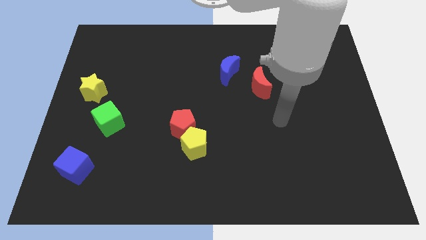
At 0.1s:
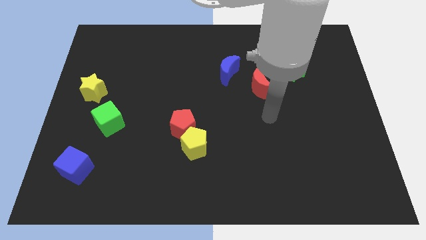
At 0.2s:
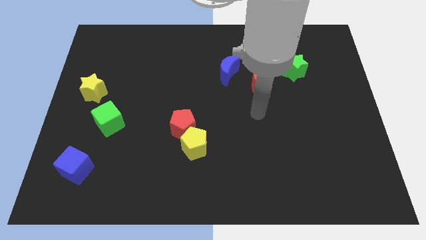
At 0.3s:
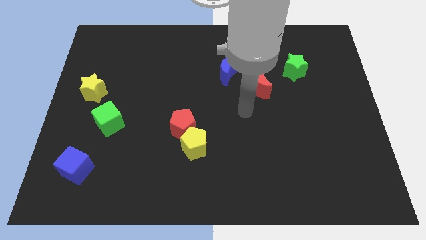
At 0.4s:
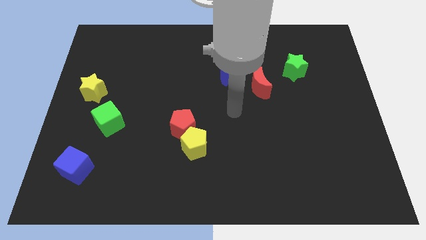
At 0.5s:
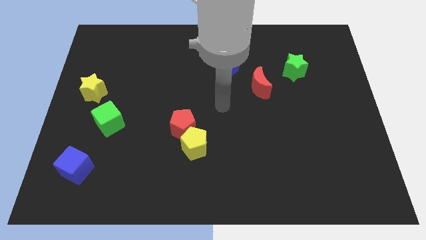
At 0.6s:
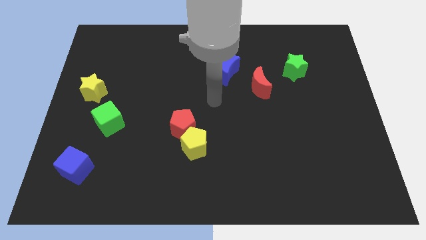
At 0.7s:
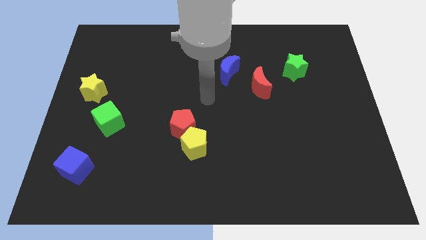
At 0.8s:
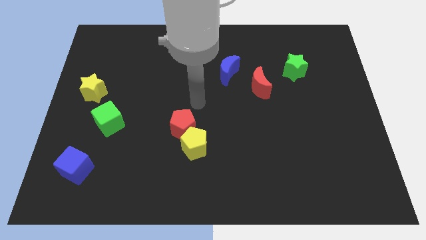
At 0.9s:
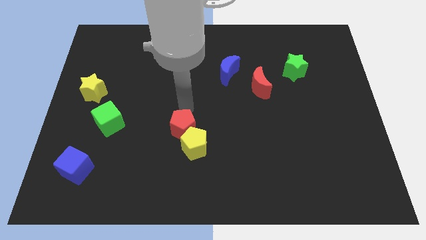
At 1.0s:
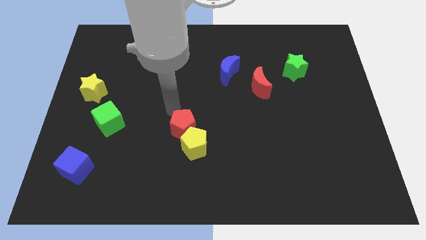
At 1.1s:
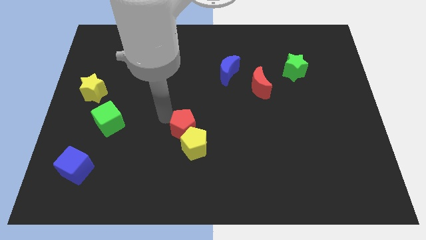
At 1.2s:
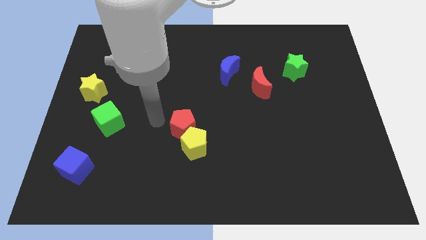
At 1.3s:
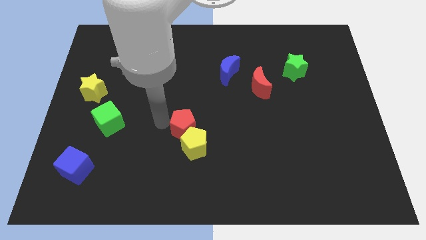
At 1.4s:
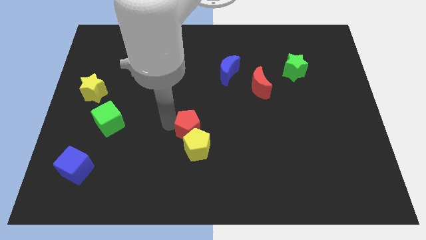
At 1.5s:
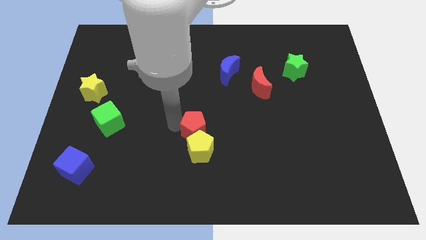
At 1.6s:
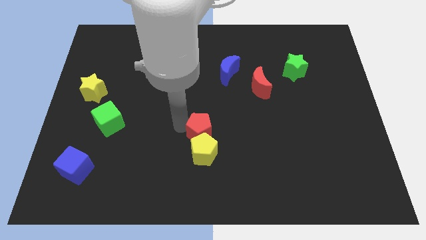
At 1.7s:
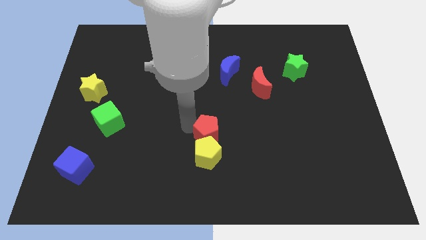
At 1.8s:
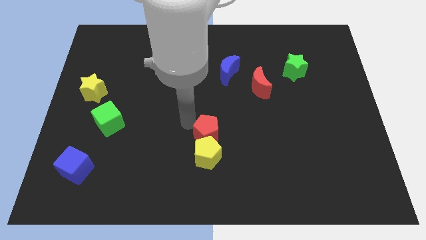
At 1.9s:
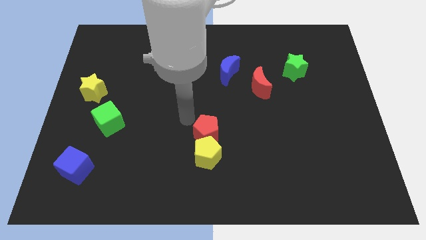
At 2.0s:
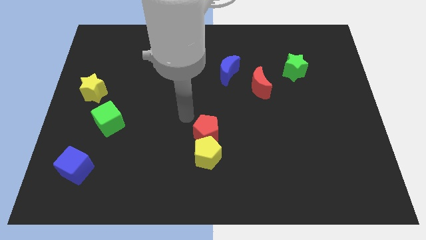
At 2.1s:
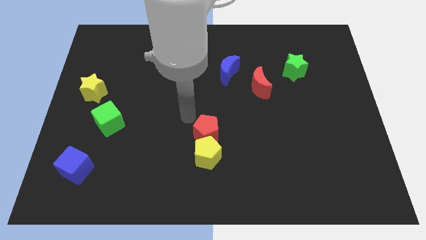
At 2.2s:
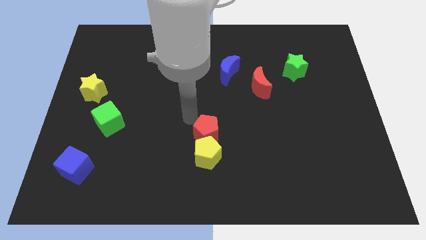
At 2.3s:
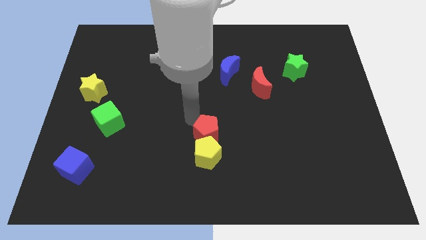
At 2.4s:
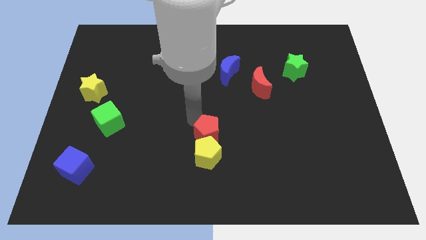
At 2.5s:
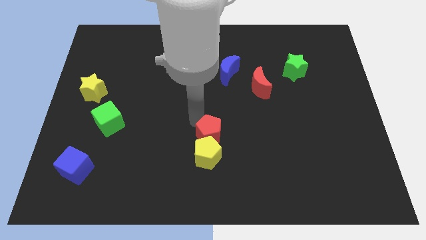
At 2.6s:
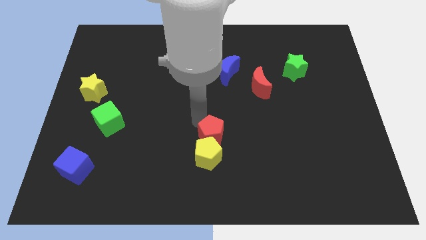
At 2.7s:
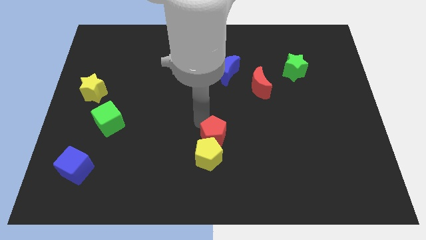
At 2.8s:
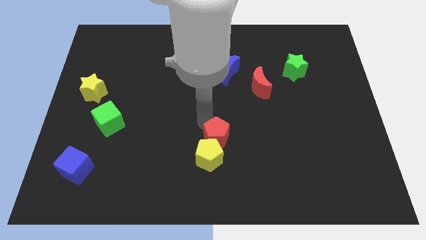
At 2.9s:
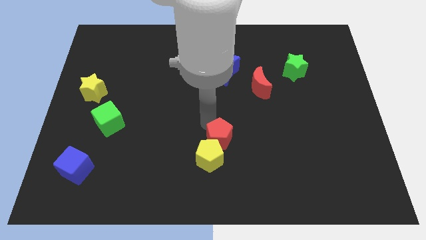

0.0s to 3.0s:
slightly move the red pentagon downwards and right diagonally

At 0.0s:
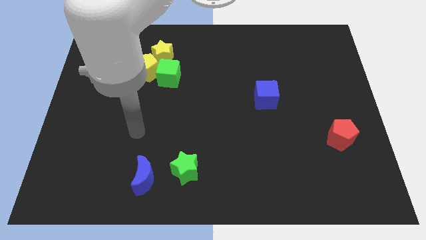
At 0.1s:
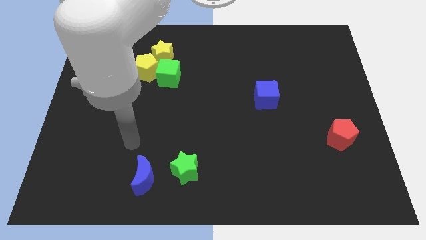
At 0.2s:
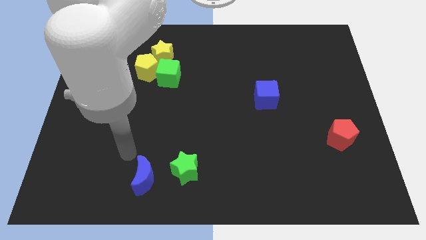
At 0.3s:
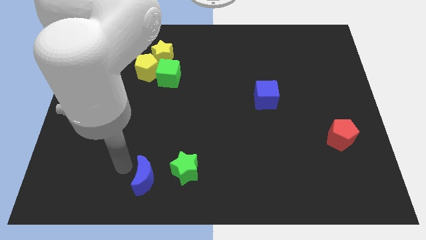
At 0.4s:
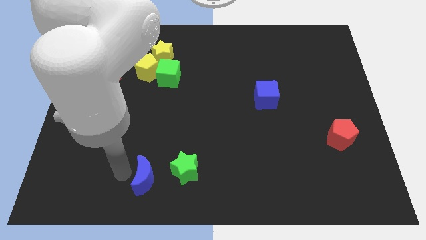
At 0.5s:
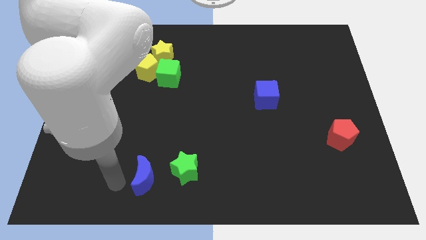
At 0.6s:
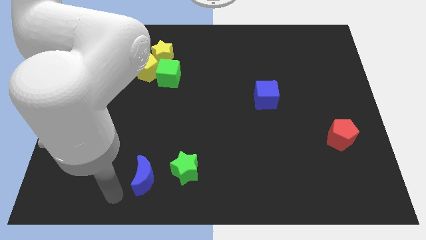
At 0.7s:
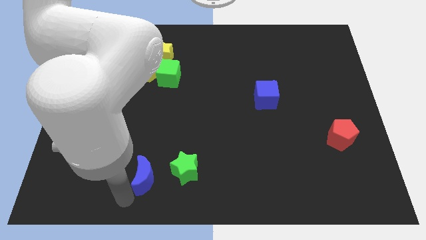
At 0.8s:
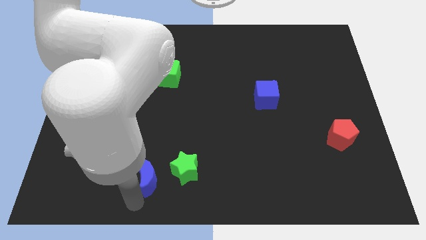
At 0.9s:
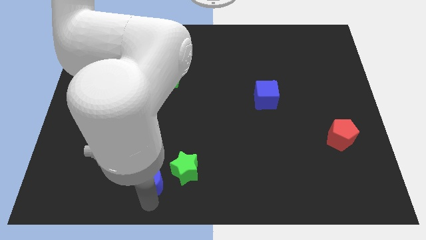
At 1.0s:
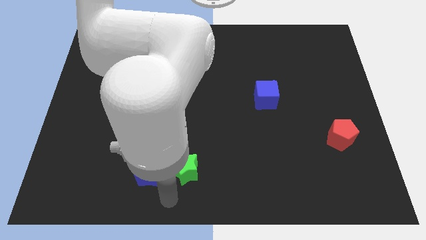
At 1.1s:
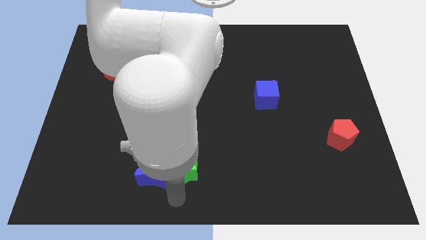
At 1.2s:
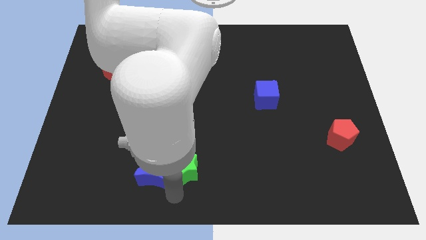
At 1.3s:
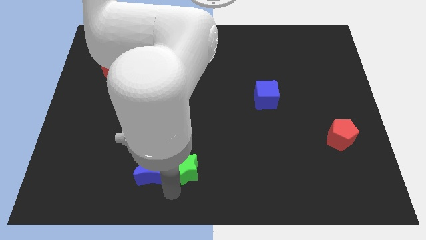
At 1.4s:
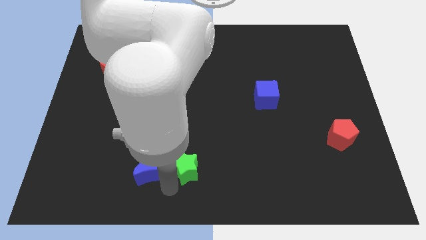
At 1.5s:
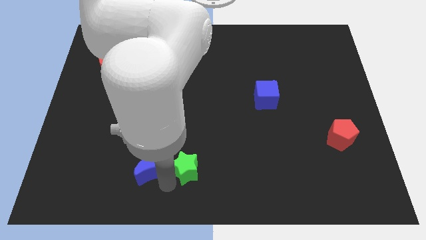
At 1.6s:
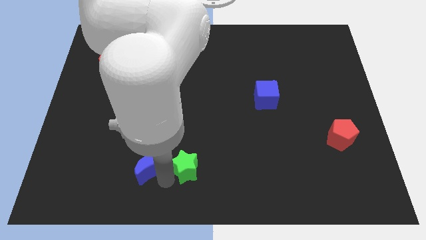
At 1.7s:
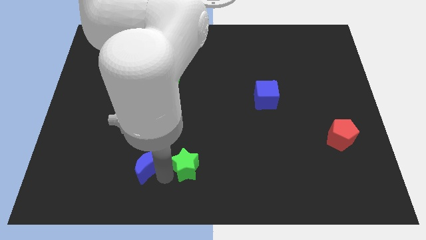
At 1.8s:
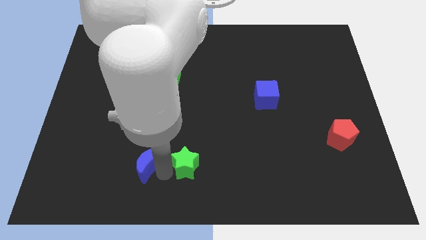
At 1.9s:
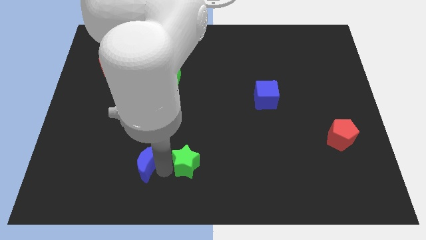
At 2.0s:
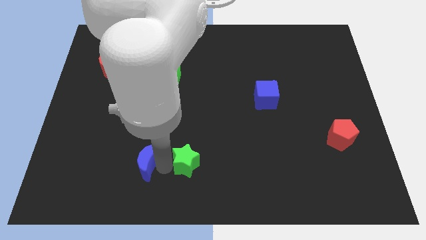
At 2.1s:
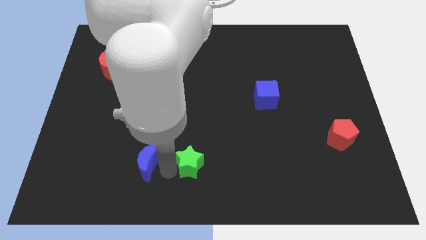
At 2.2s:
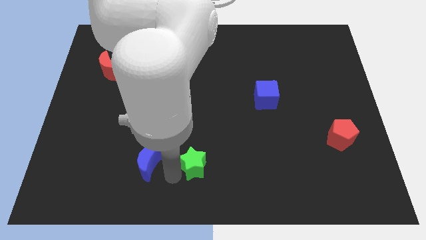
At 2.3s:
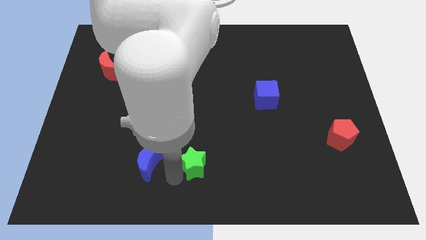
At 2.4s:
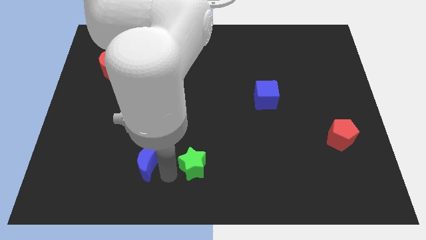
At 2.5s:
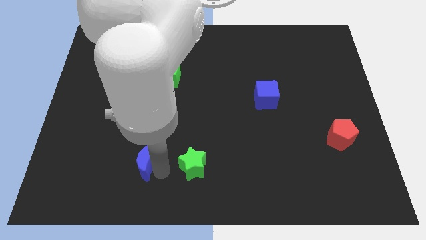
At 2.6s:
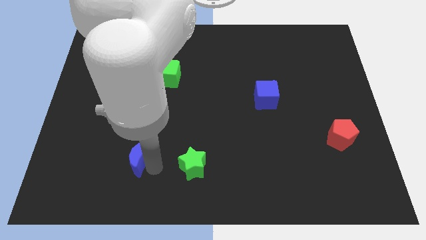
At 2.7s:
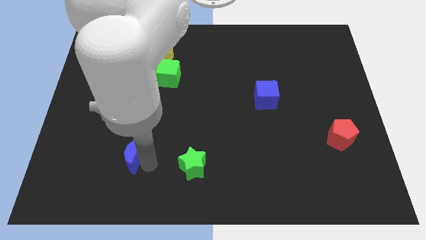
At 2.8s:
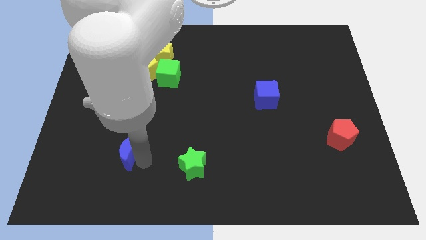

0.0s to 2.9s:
move the blue moon slightly upwards and to the left

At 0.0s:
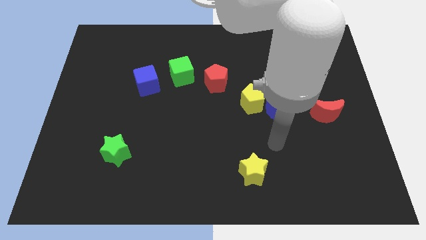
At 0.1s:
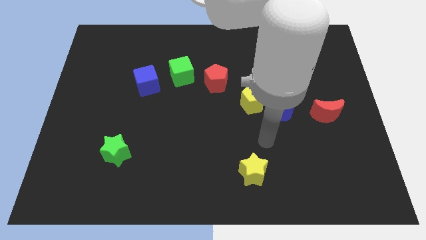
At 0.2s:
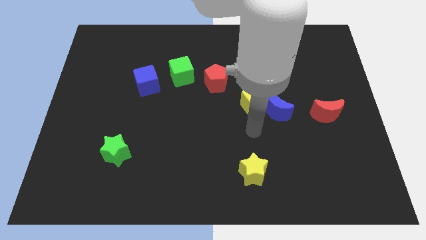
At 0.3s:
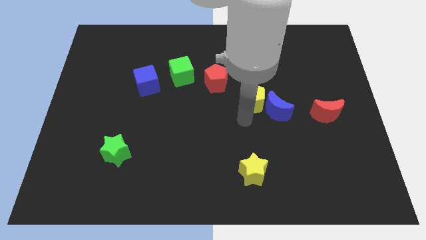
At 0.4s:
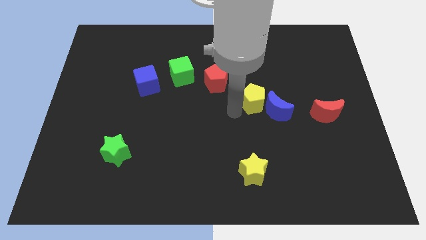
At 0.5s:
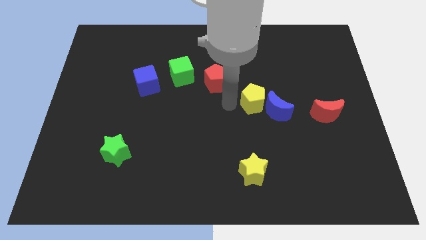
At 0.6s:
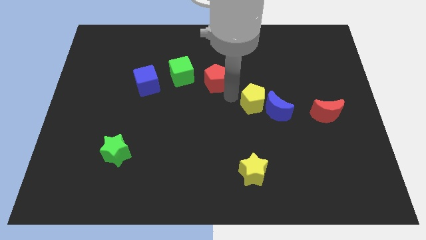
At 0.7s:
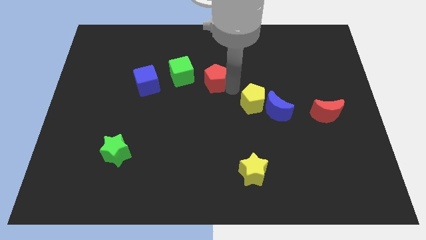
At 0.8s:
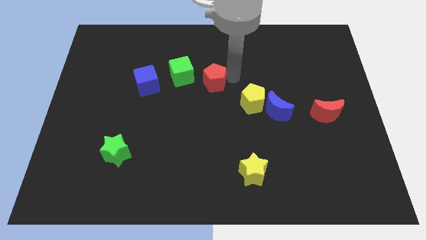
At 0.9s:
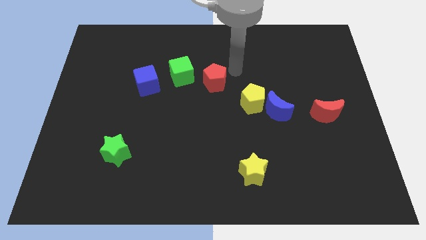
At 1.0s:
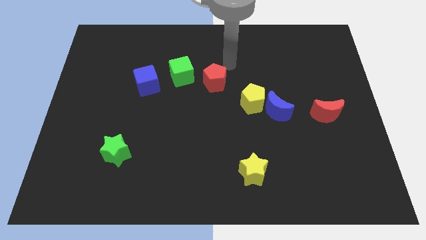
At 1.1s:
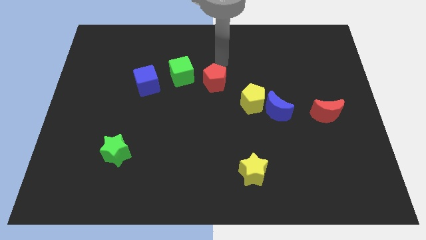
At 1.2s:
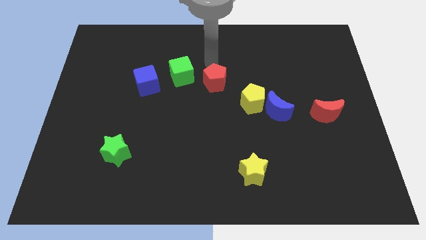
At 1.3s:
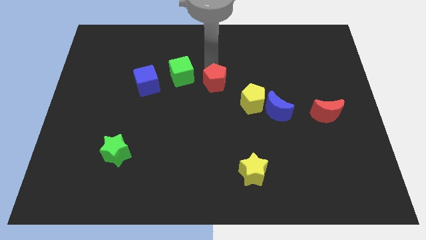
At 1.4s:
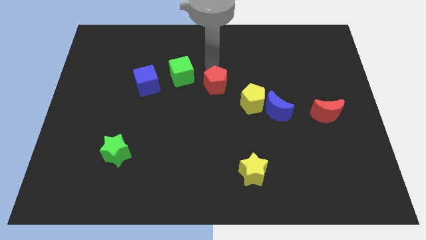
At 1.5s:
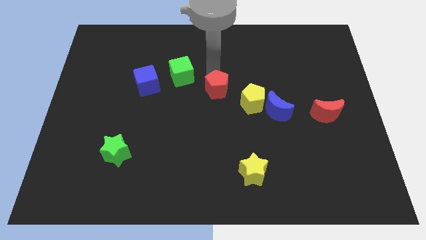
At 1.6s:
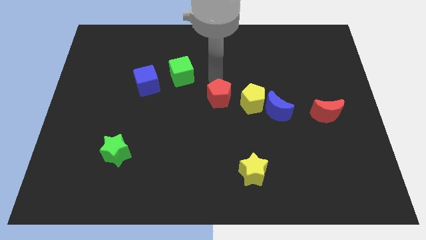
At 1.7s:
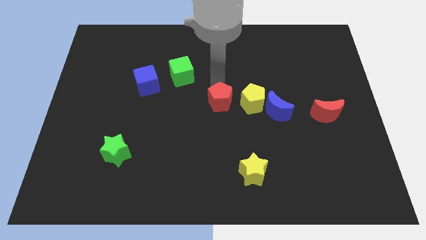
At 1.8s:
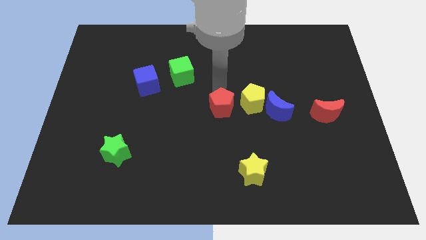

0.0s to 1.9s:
slightly push the red pentagon down
